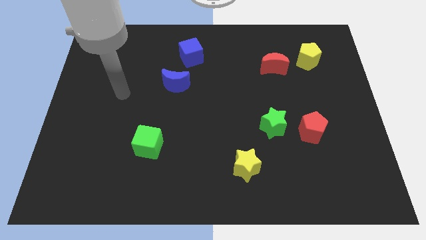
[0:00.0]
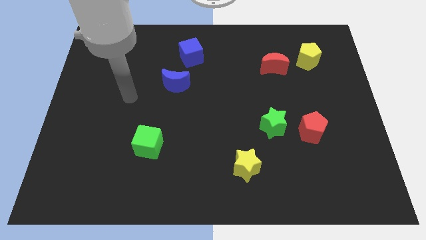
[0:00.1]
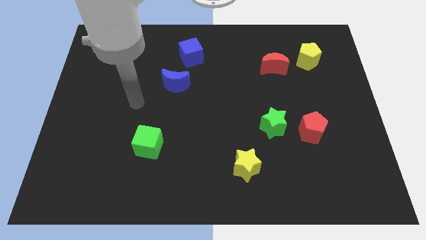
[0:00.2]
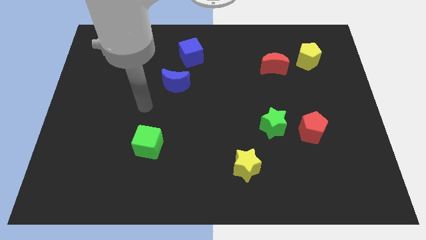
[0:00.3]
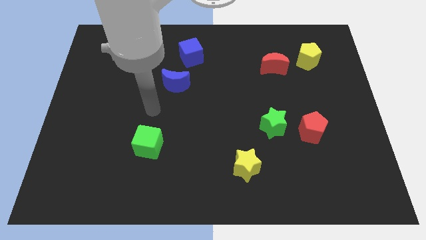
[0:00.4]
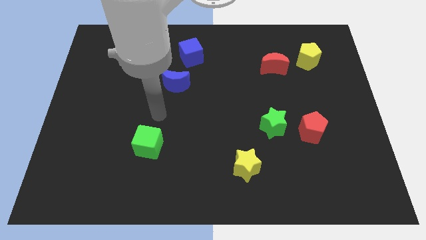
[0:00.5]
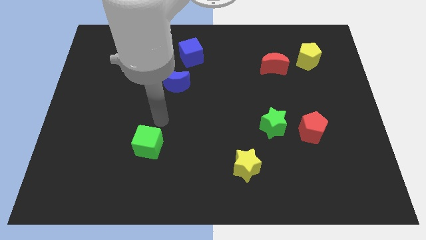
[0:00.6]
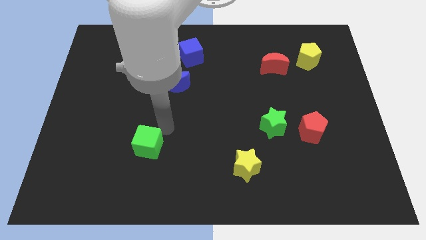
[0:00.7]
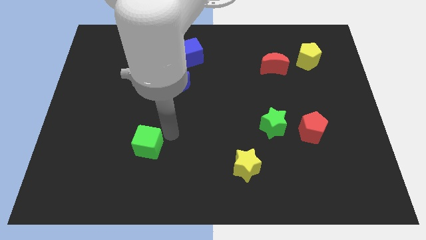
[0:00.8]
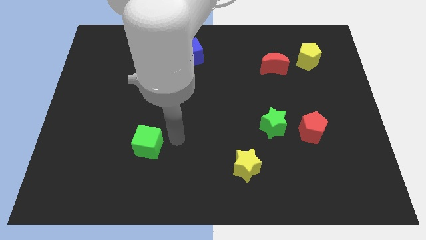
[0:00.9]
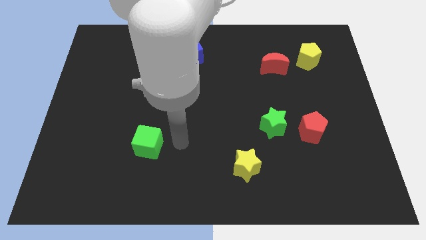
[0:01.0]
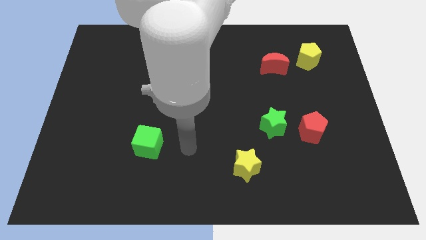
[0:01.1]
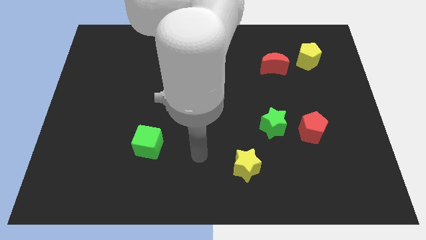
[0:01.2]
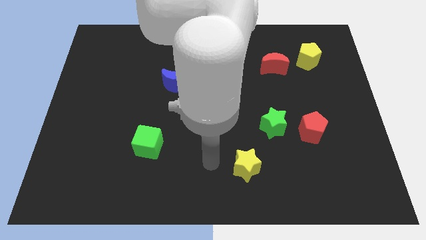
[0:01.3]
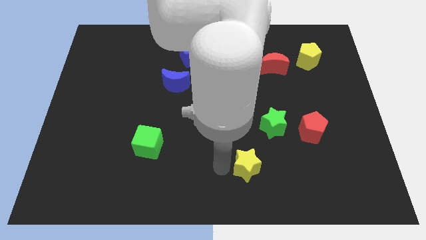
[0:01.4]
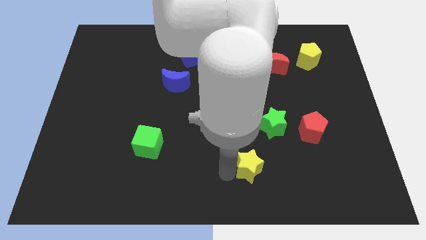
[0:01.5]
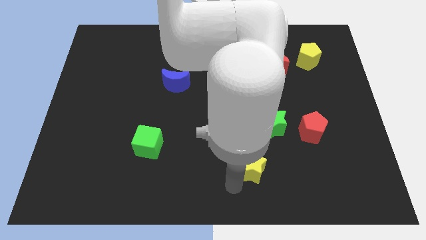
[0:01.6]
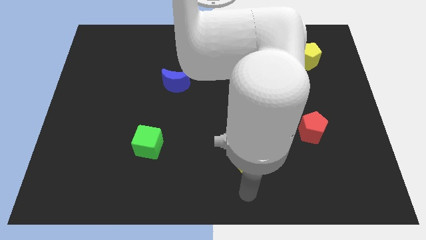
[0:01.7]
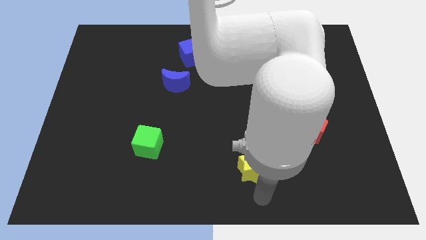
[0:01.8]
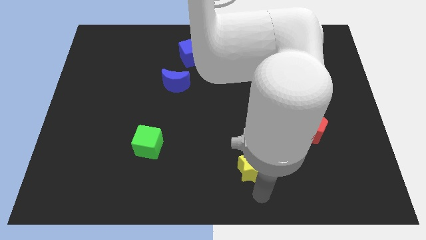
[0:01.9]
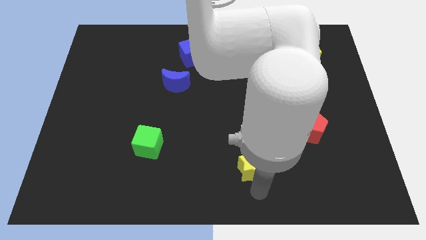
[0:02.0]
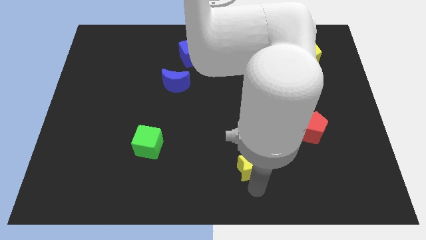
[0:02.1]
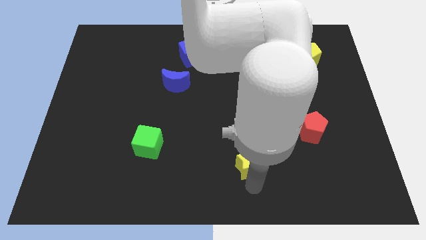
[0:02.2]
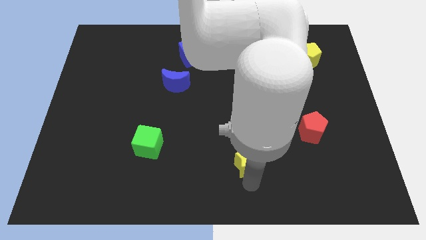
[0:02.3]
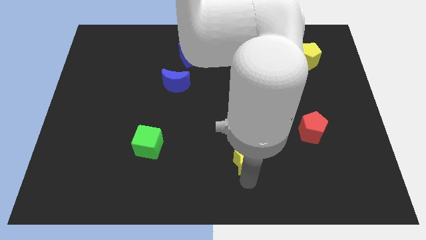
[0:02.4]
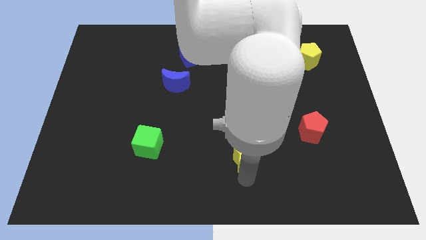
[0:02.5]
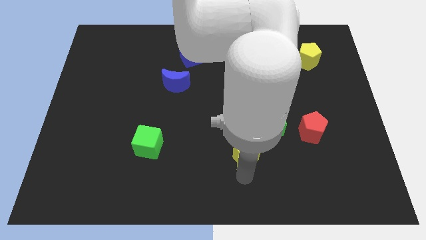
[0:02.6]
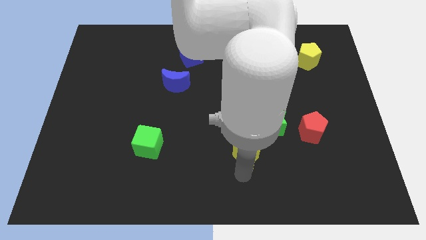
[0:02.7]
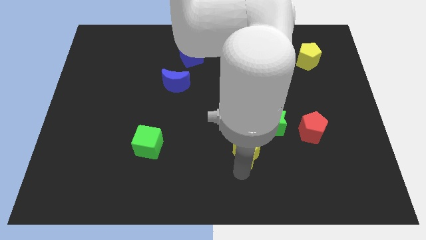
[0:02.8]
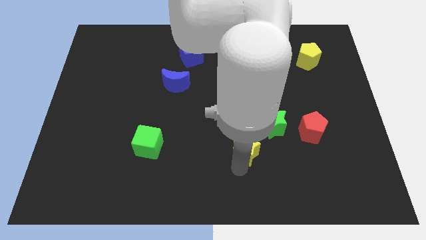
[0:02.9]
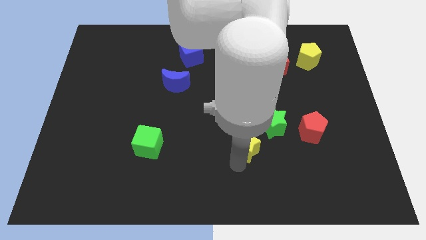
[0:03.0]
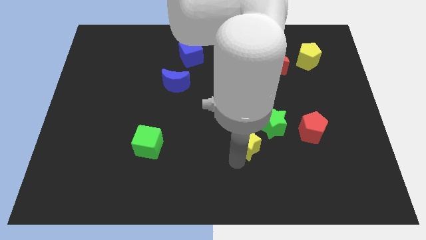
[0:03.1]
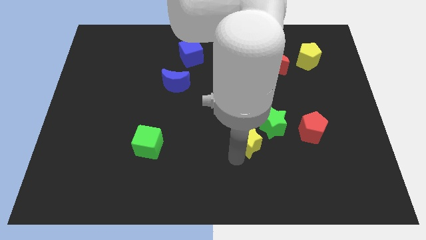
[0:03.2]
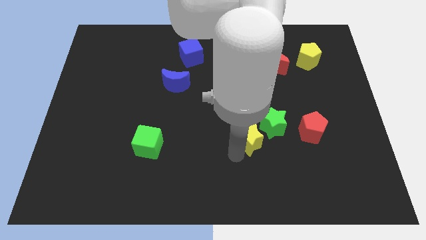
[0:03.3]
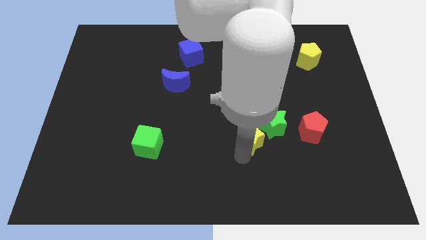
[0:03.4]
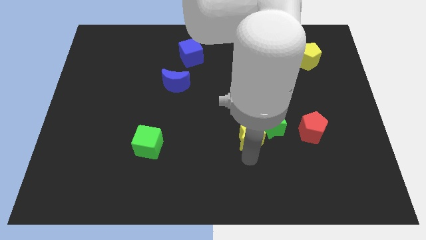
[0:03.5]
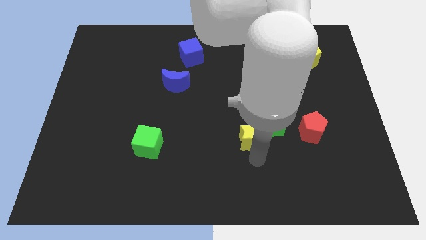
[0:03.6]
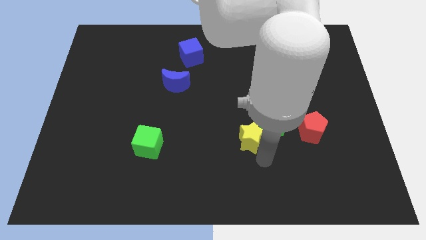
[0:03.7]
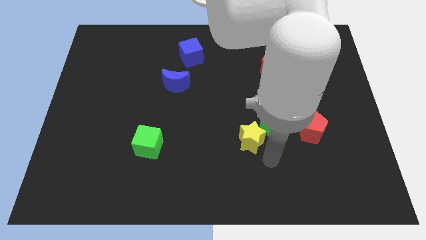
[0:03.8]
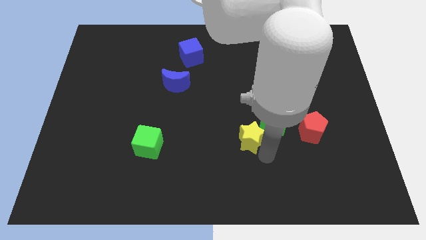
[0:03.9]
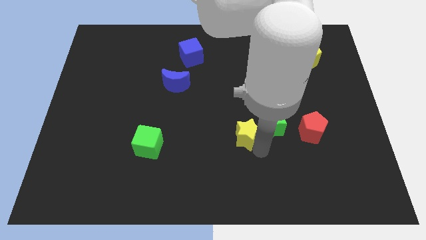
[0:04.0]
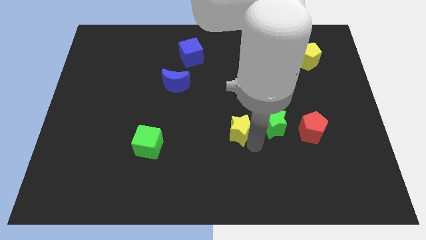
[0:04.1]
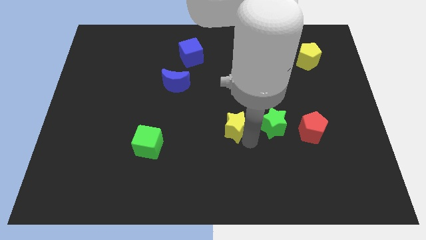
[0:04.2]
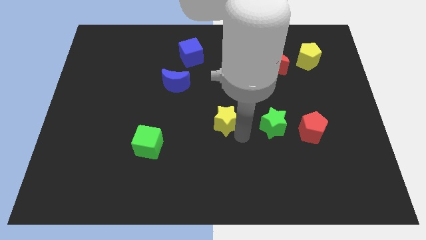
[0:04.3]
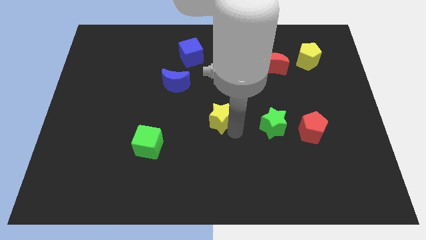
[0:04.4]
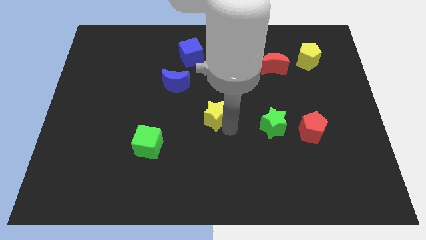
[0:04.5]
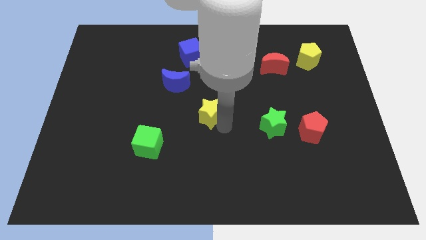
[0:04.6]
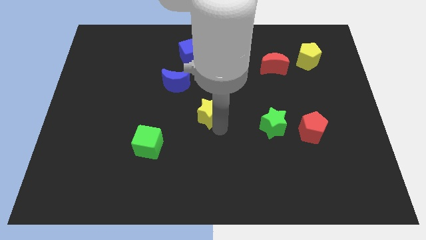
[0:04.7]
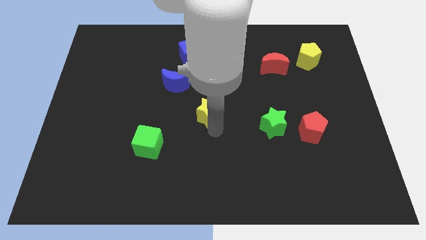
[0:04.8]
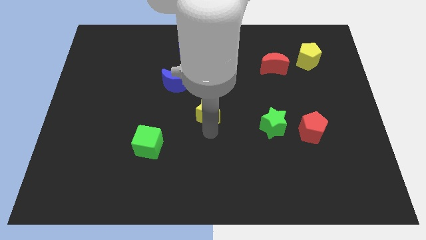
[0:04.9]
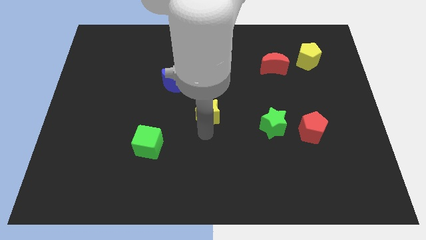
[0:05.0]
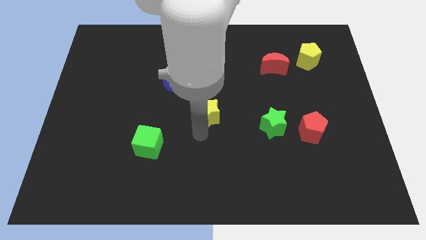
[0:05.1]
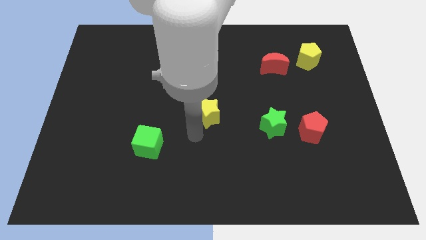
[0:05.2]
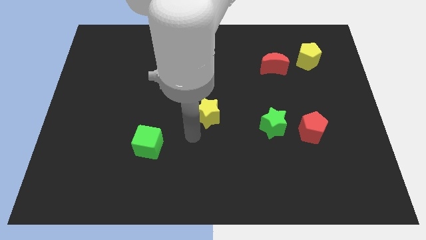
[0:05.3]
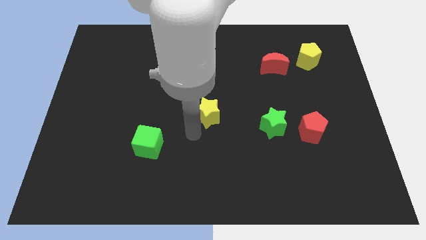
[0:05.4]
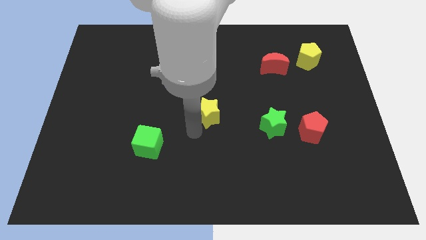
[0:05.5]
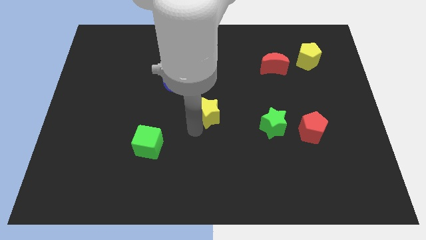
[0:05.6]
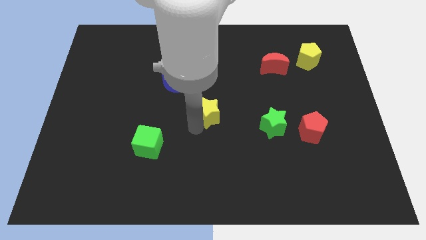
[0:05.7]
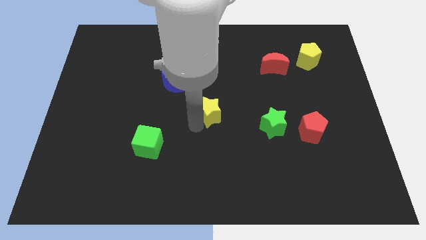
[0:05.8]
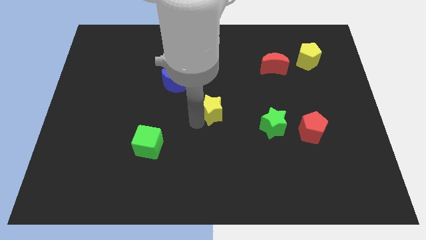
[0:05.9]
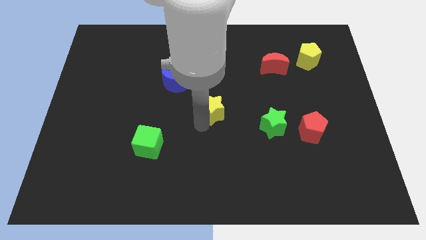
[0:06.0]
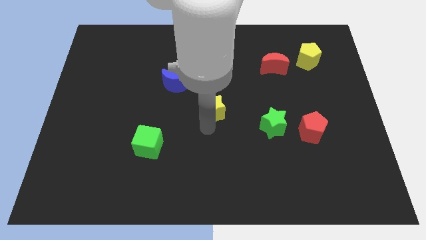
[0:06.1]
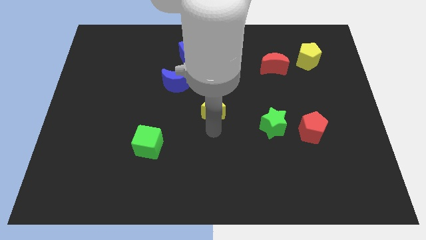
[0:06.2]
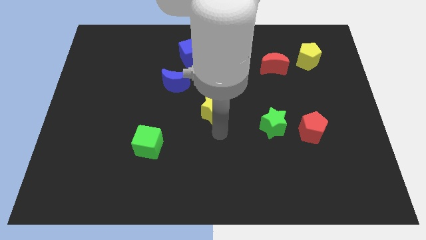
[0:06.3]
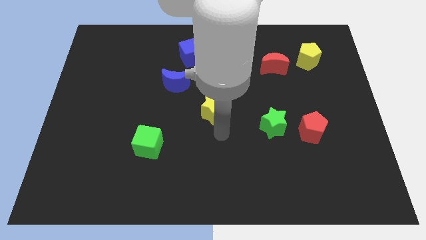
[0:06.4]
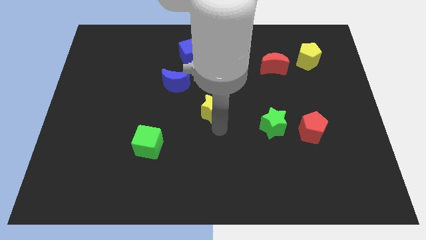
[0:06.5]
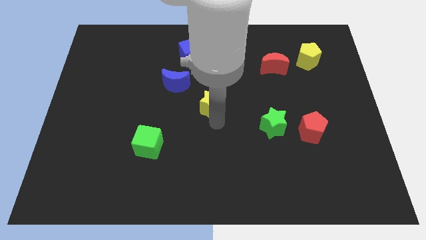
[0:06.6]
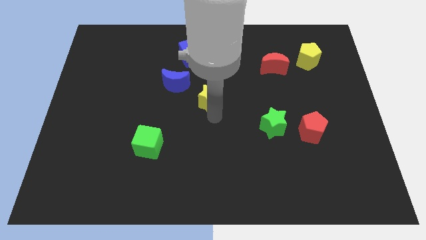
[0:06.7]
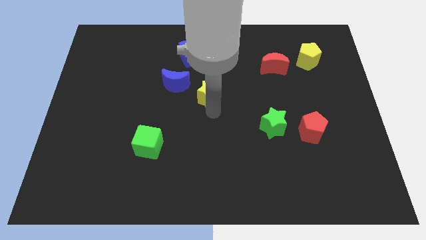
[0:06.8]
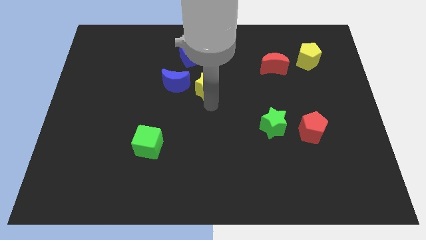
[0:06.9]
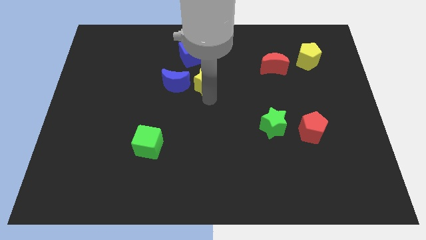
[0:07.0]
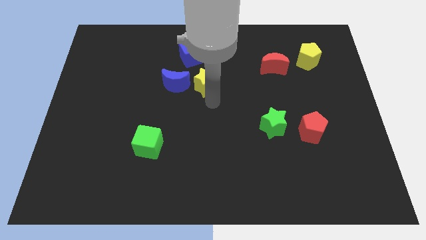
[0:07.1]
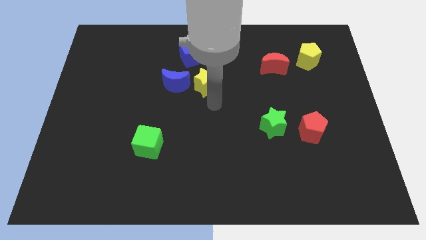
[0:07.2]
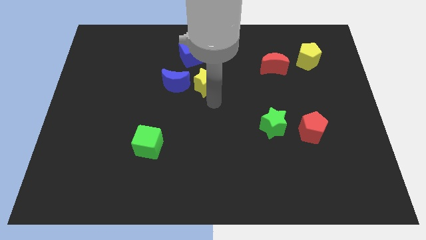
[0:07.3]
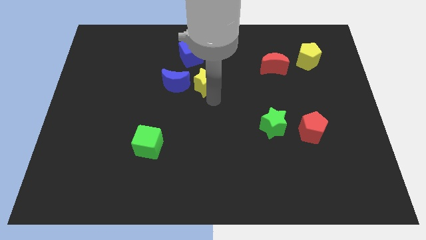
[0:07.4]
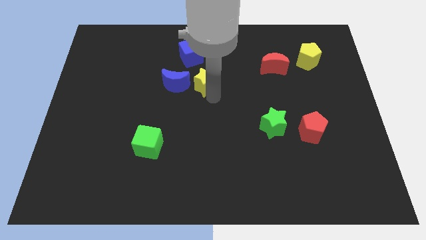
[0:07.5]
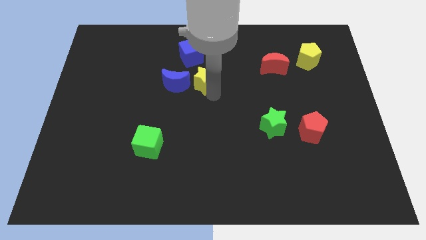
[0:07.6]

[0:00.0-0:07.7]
slide the yellow star to the top right side of the blue moon

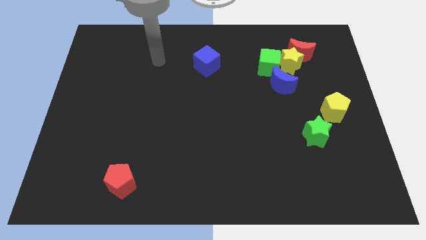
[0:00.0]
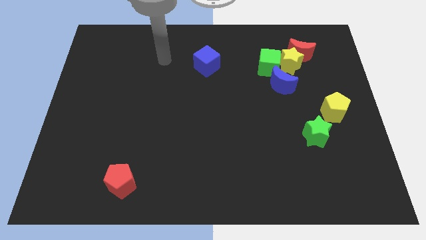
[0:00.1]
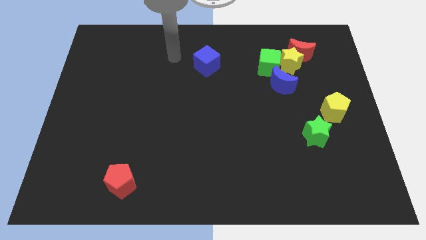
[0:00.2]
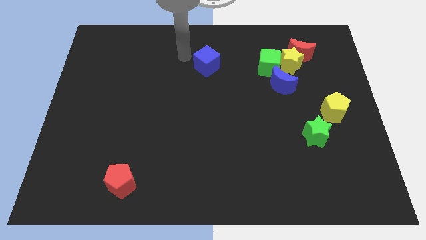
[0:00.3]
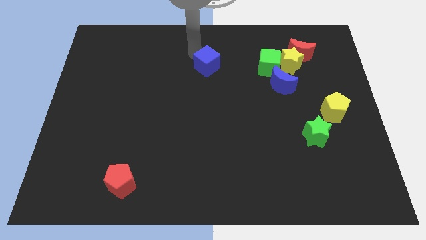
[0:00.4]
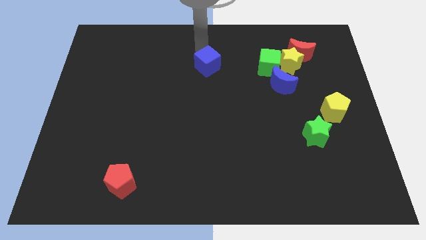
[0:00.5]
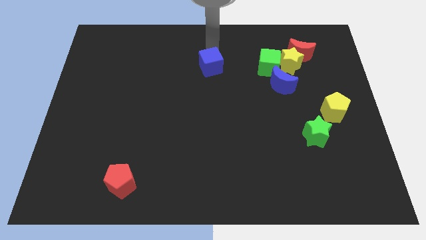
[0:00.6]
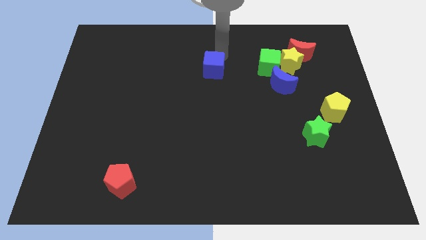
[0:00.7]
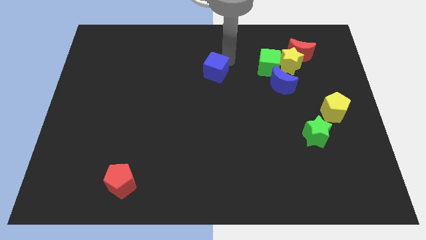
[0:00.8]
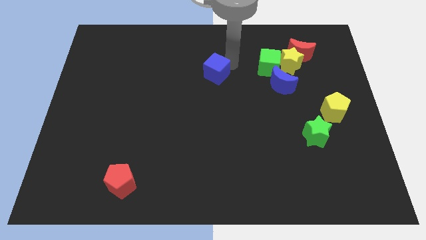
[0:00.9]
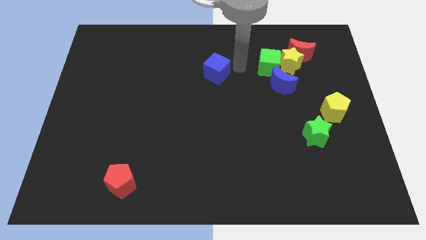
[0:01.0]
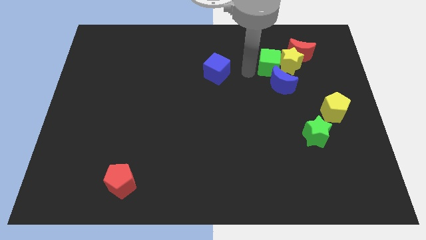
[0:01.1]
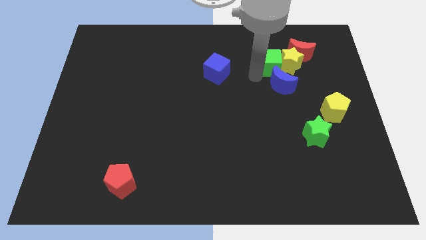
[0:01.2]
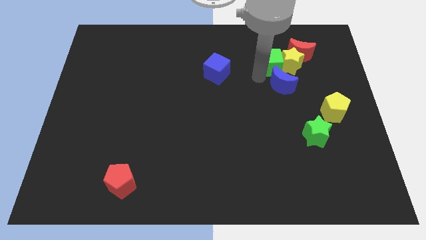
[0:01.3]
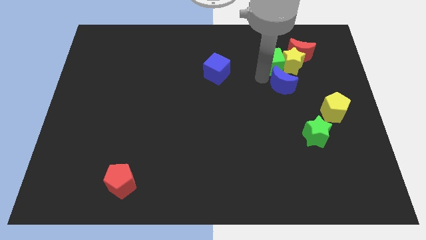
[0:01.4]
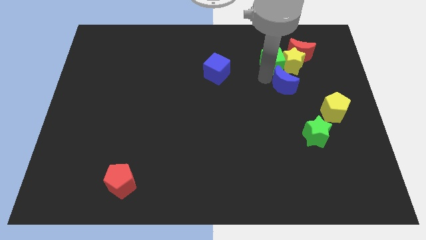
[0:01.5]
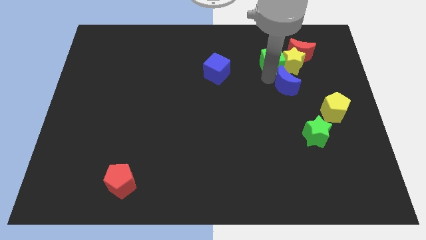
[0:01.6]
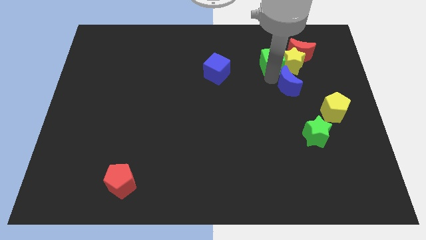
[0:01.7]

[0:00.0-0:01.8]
put the blue moon diagonally up and to the left of the yellow pentagon
